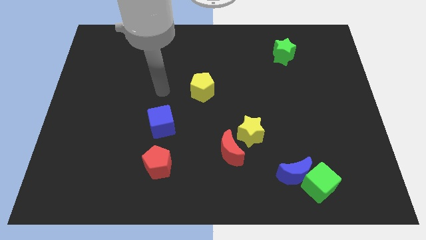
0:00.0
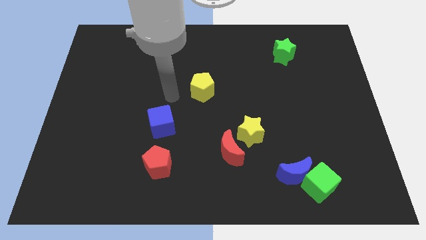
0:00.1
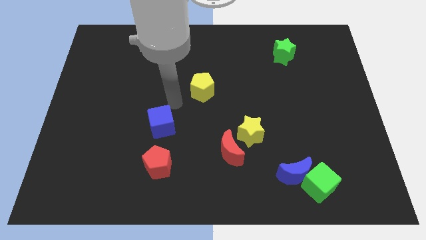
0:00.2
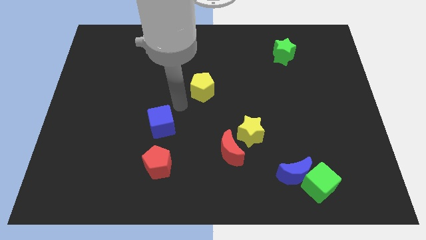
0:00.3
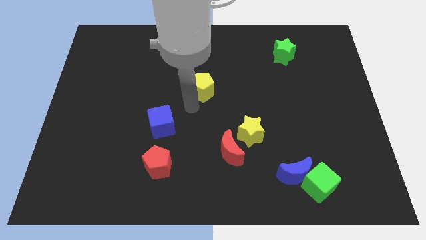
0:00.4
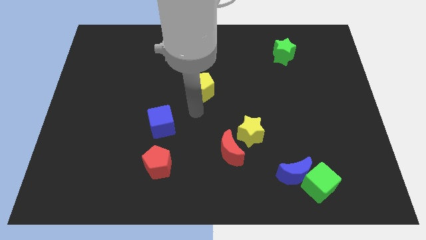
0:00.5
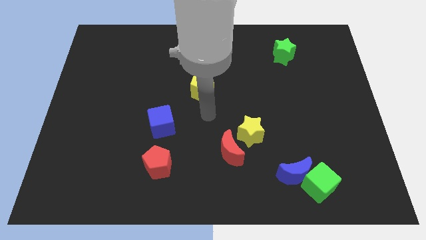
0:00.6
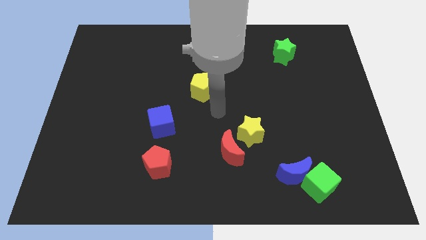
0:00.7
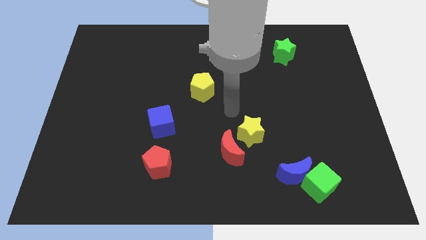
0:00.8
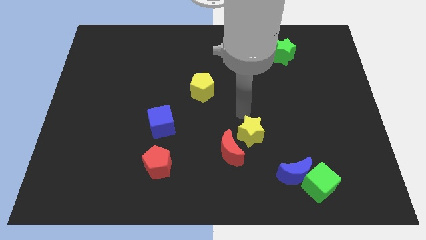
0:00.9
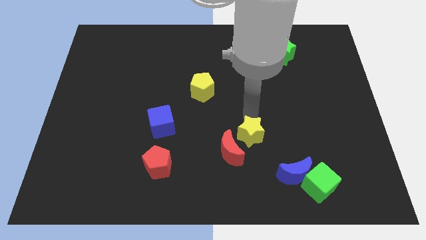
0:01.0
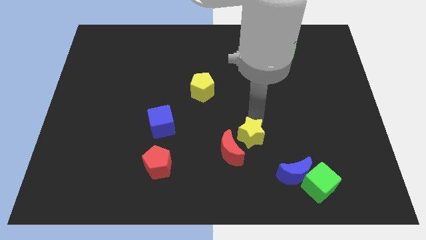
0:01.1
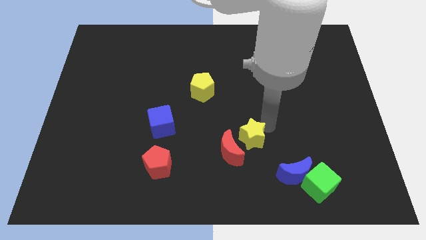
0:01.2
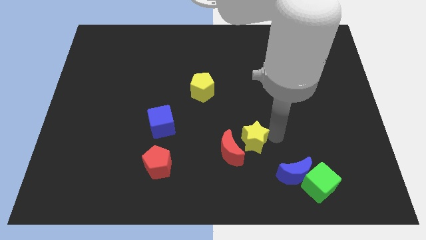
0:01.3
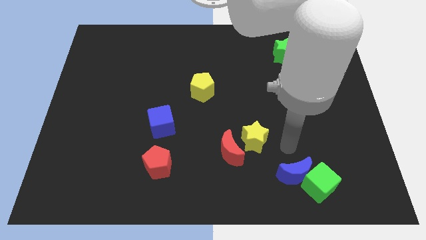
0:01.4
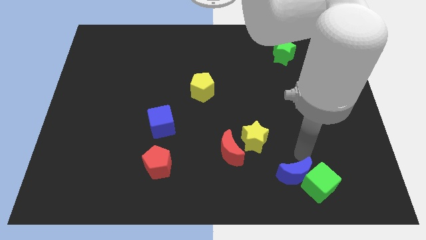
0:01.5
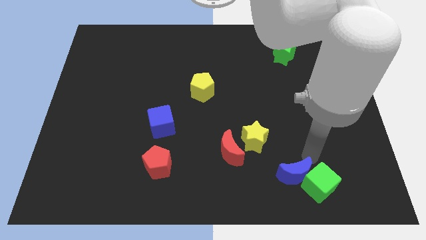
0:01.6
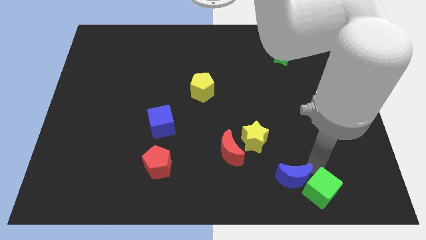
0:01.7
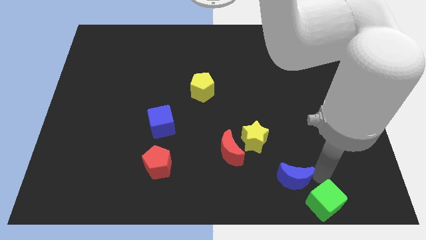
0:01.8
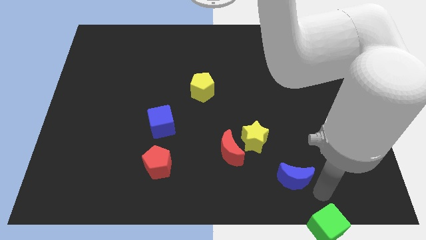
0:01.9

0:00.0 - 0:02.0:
pull the blue moon apart from the green cube

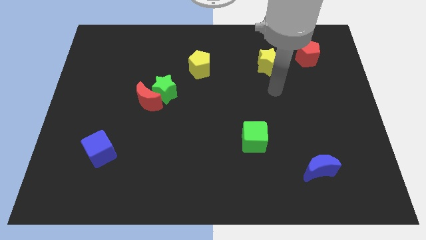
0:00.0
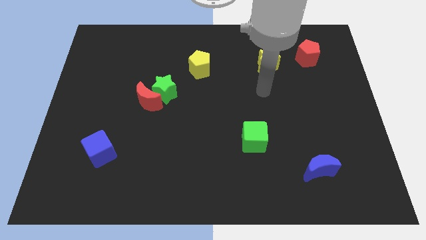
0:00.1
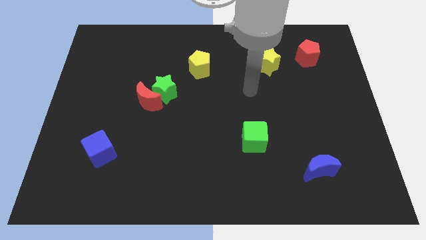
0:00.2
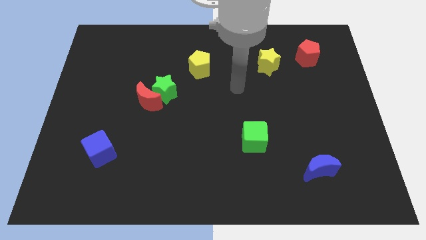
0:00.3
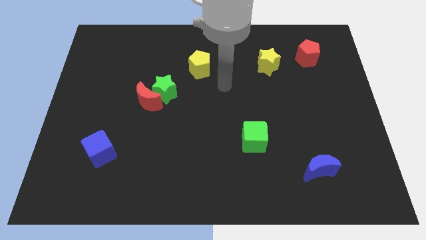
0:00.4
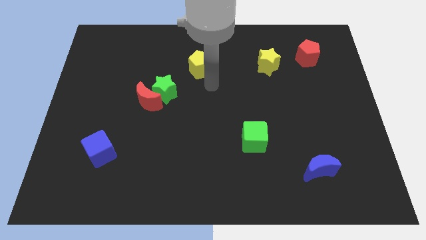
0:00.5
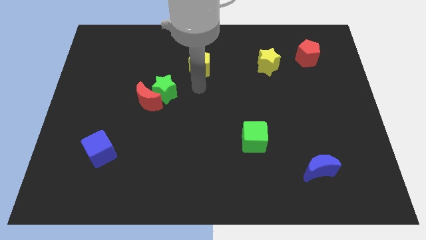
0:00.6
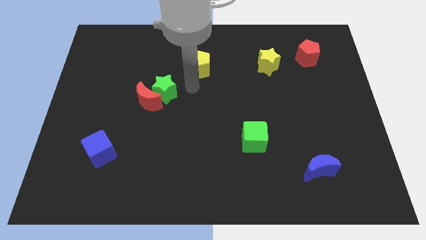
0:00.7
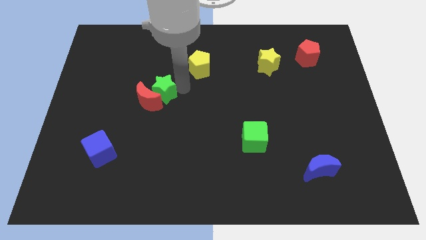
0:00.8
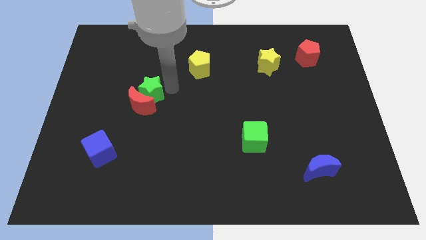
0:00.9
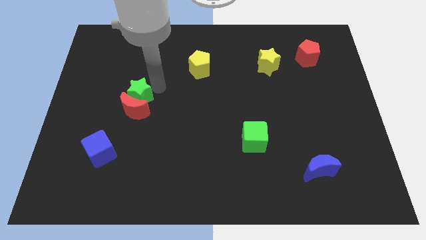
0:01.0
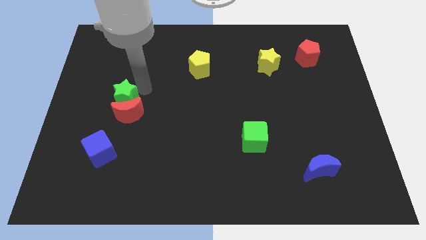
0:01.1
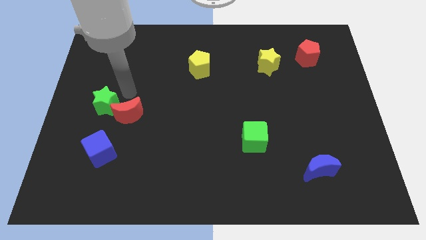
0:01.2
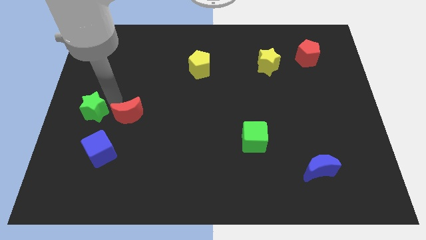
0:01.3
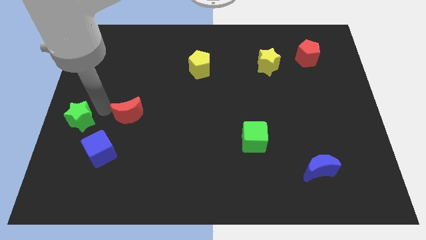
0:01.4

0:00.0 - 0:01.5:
move the red moon away from the green star

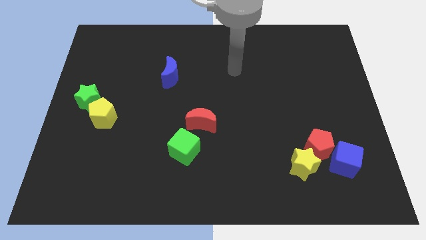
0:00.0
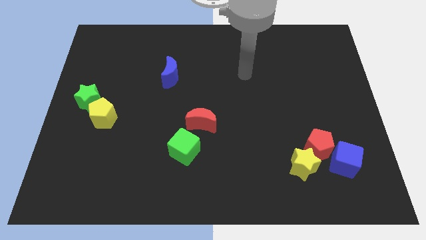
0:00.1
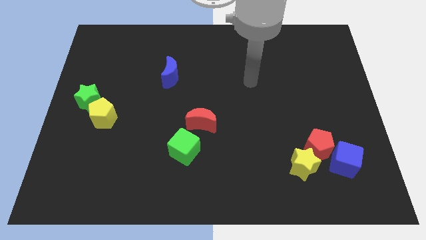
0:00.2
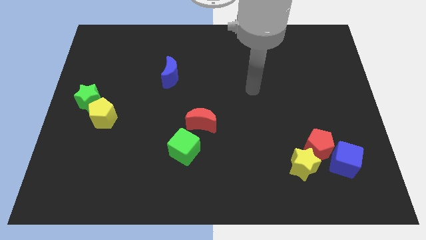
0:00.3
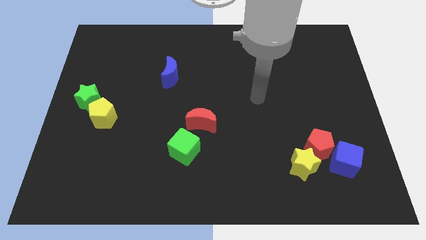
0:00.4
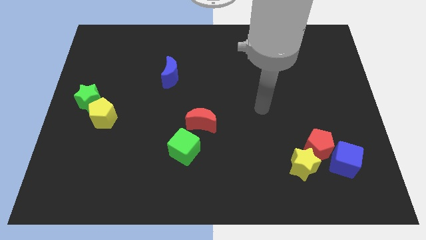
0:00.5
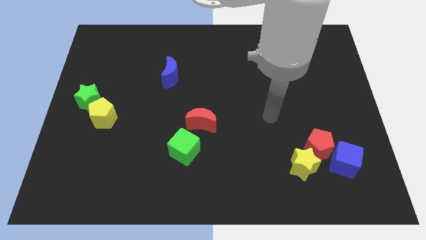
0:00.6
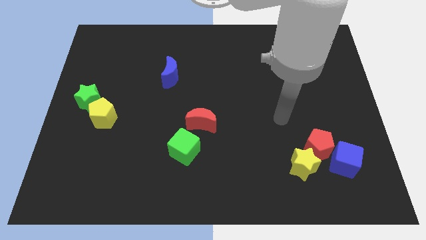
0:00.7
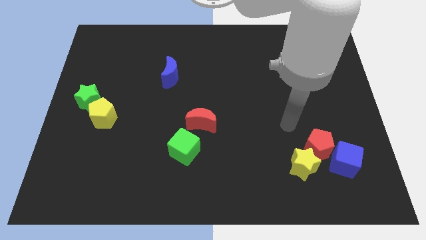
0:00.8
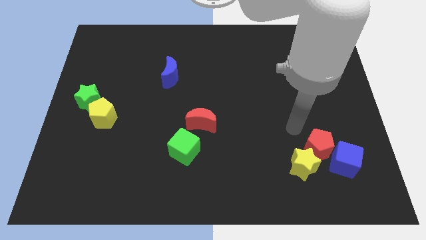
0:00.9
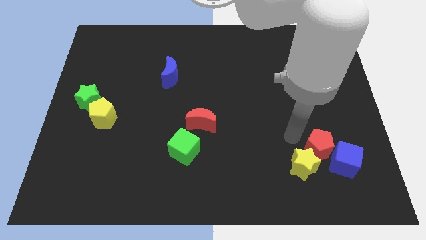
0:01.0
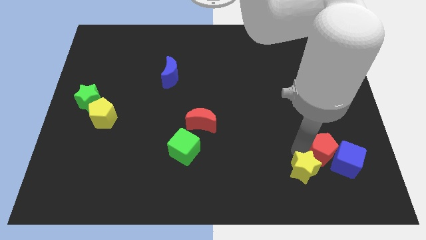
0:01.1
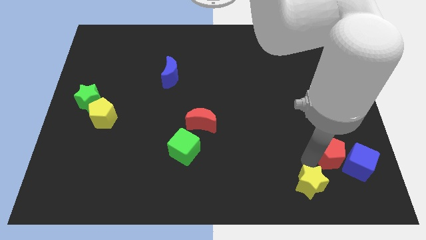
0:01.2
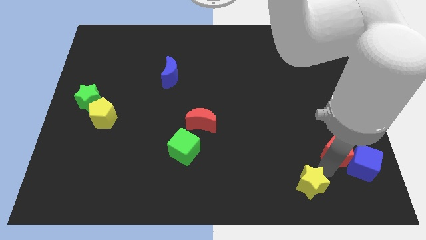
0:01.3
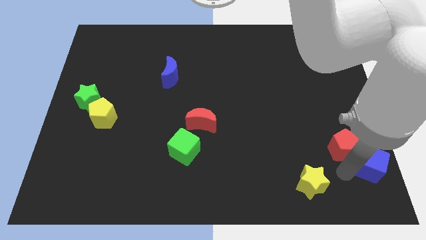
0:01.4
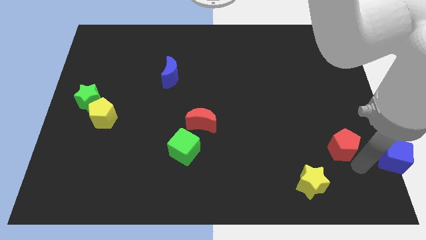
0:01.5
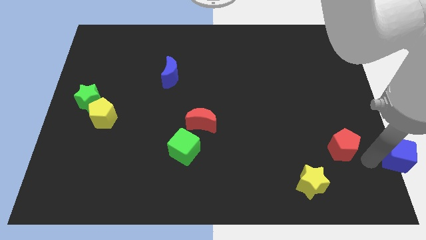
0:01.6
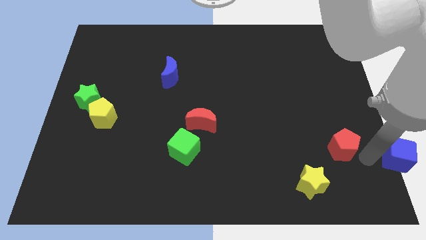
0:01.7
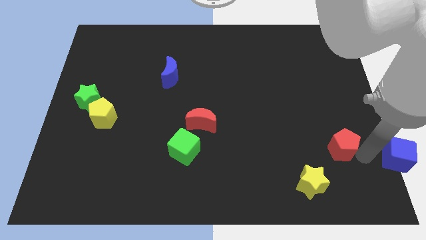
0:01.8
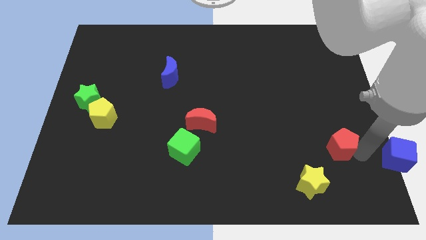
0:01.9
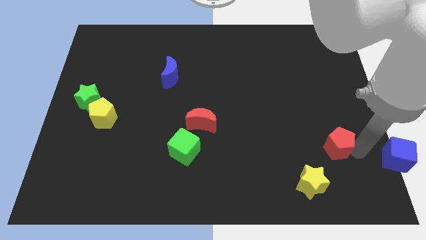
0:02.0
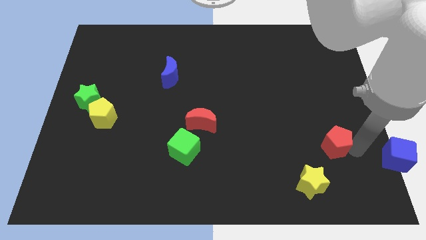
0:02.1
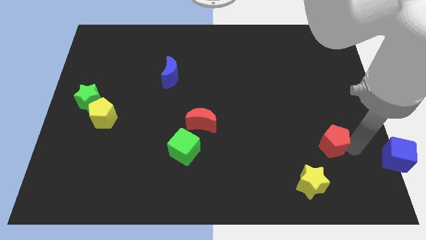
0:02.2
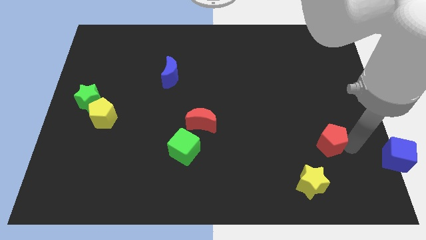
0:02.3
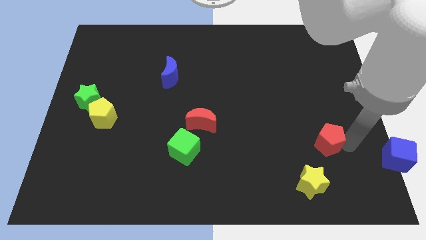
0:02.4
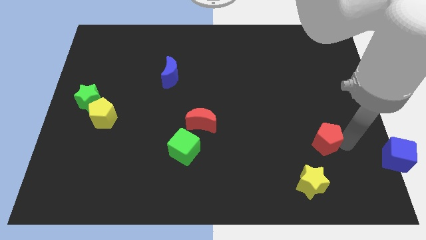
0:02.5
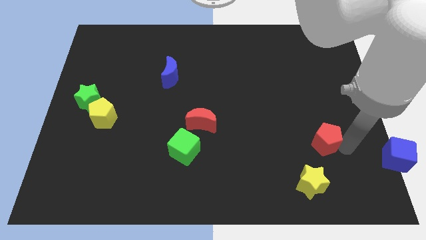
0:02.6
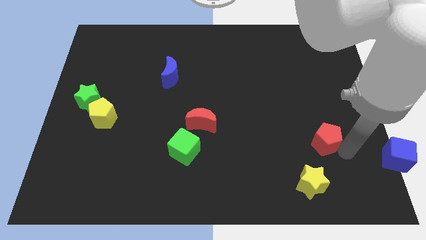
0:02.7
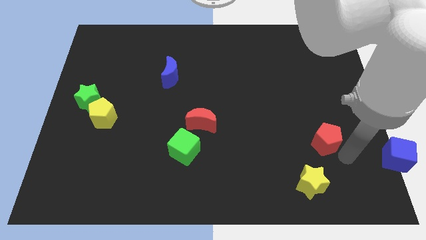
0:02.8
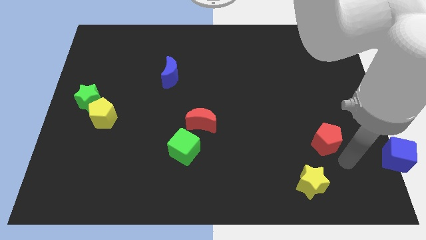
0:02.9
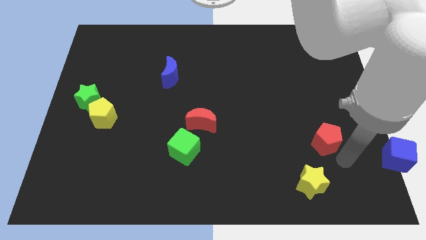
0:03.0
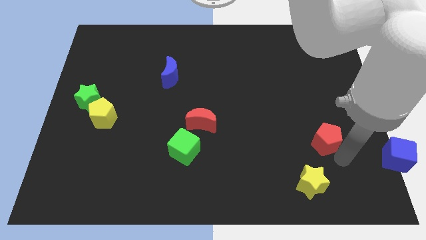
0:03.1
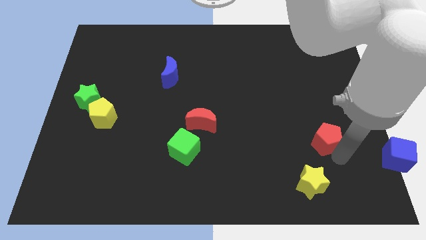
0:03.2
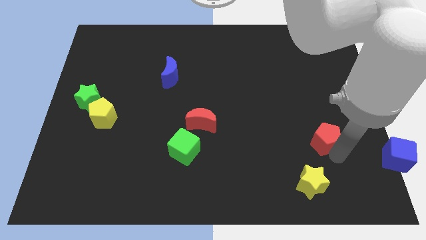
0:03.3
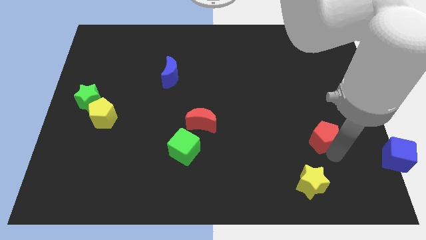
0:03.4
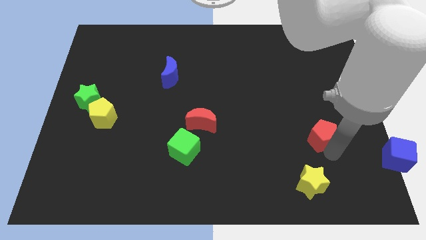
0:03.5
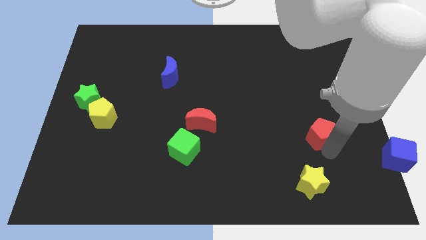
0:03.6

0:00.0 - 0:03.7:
separate the red pentagon from the yellow star and blue cube

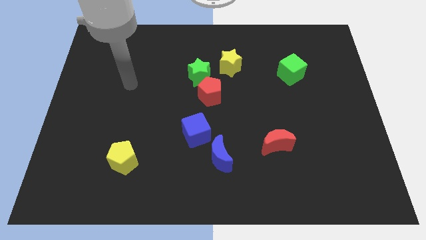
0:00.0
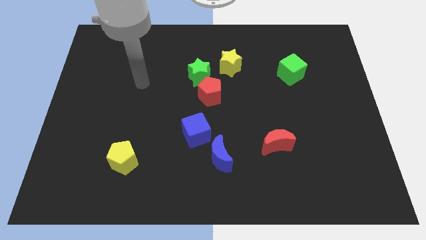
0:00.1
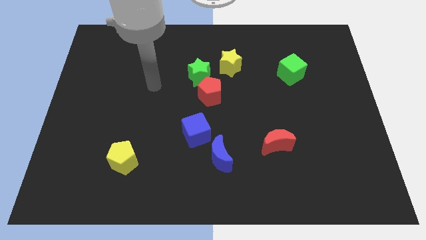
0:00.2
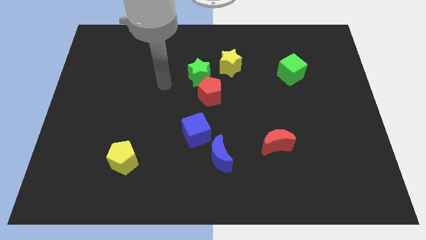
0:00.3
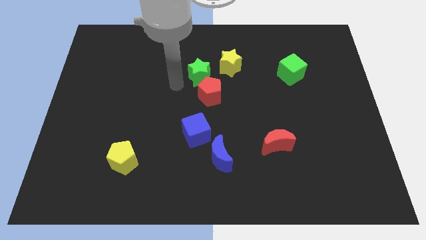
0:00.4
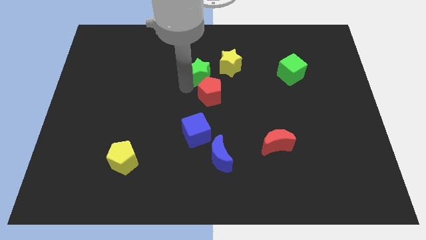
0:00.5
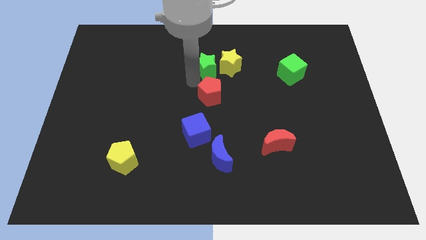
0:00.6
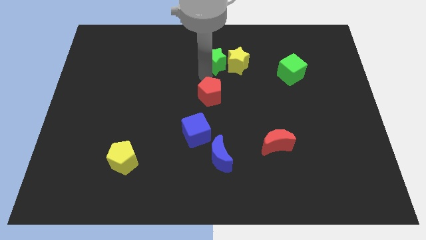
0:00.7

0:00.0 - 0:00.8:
move the red pentagon away from the green star

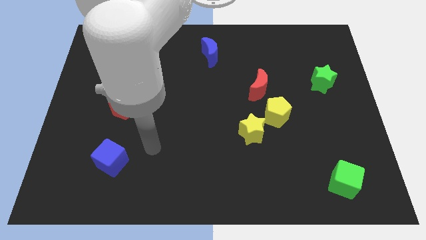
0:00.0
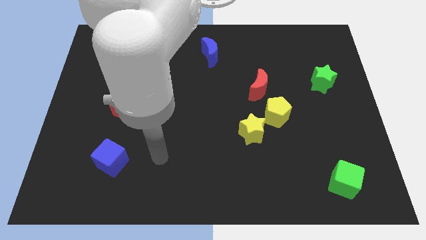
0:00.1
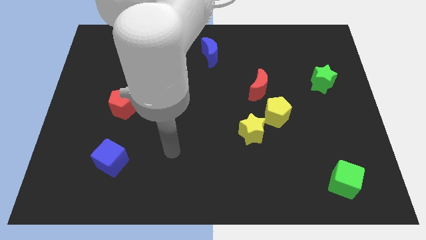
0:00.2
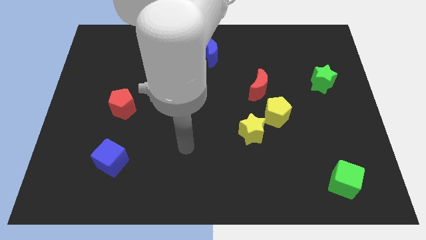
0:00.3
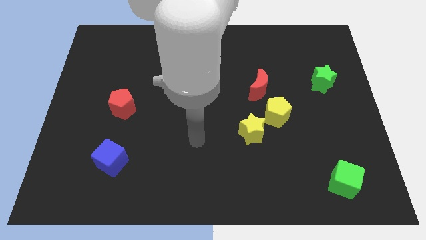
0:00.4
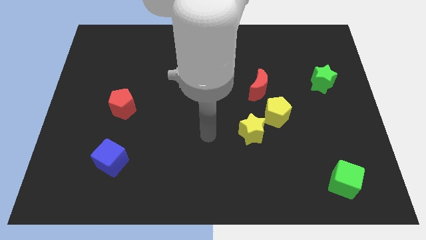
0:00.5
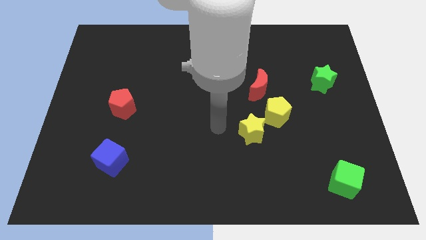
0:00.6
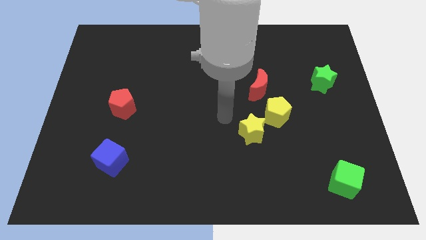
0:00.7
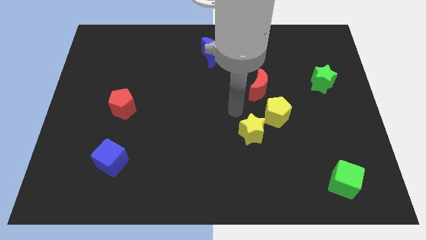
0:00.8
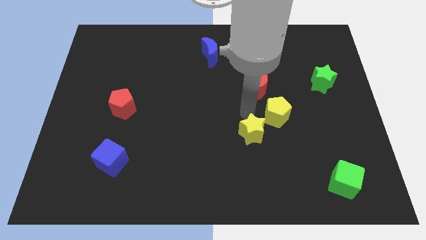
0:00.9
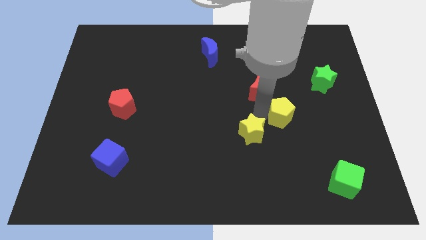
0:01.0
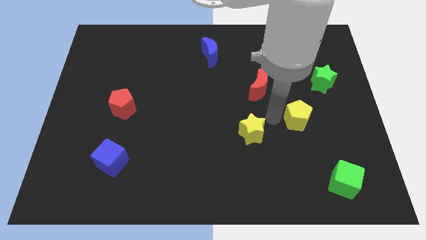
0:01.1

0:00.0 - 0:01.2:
separate the yellow star from the yellow pentagon

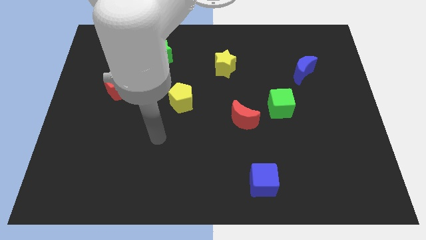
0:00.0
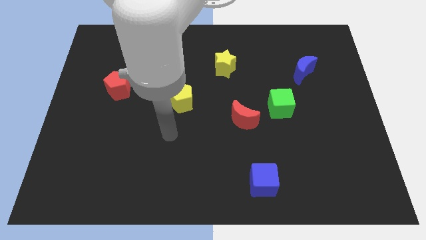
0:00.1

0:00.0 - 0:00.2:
separate the red moon from the green cube

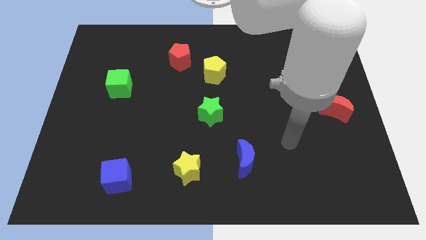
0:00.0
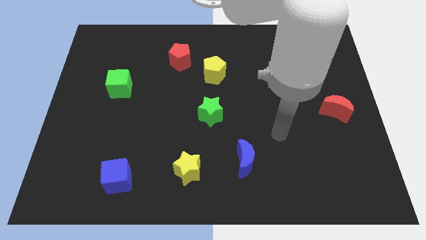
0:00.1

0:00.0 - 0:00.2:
move the red pentagon away from the yellow pentagon
